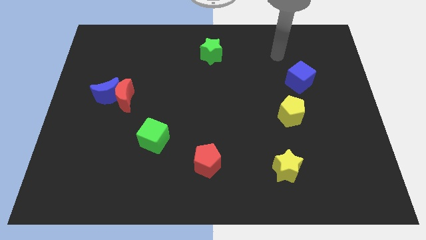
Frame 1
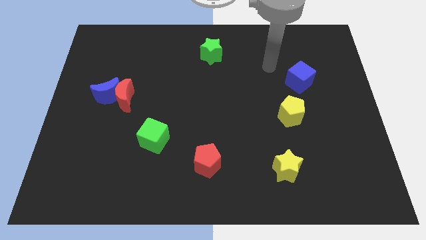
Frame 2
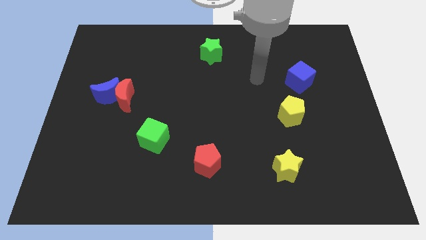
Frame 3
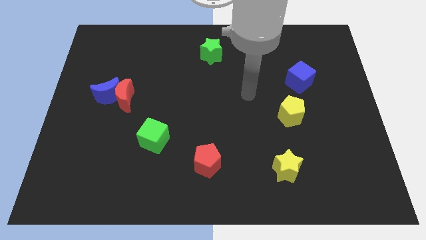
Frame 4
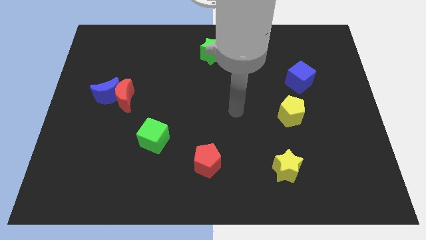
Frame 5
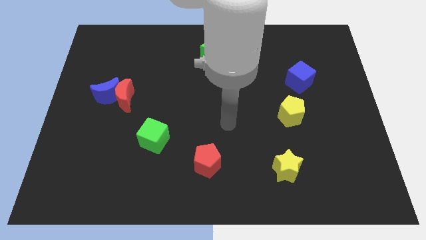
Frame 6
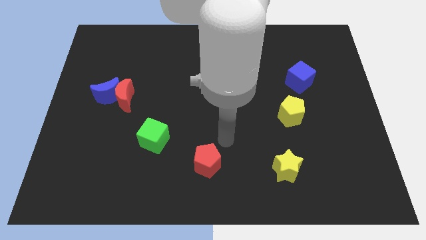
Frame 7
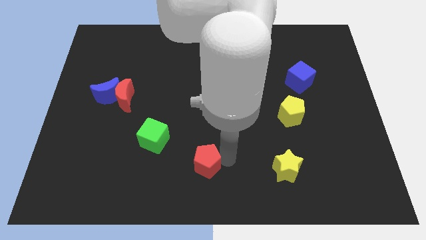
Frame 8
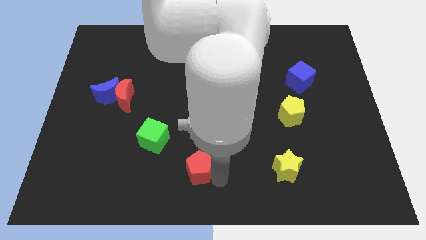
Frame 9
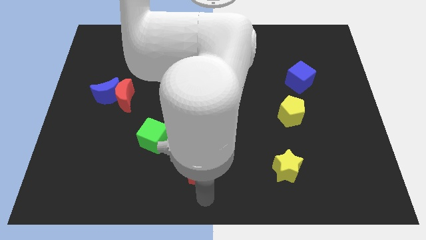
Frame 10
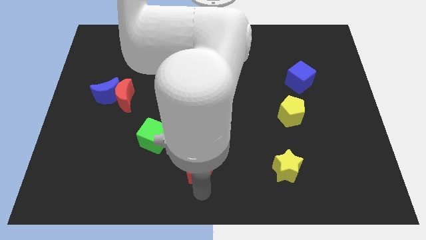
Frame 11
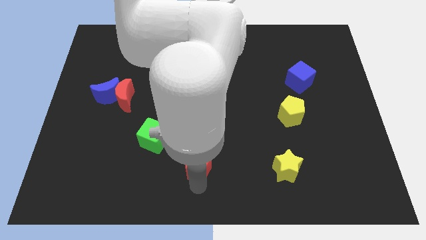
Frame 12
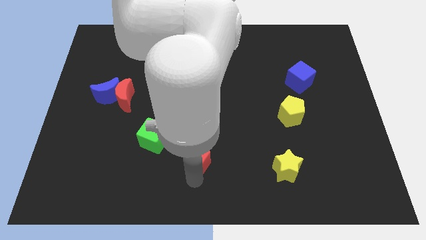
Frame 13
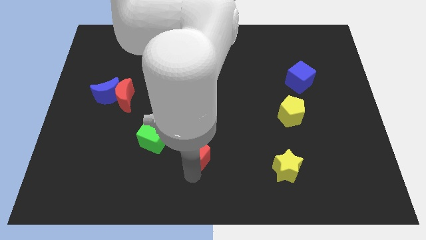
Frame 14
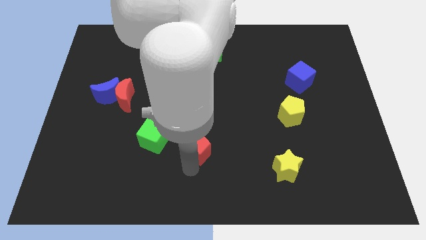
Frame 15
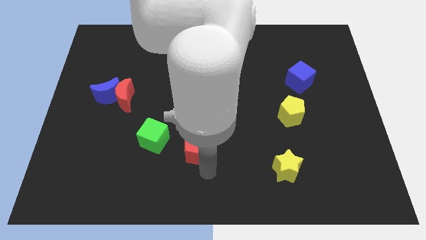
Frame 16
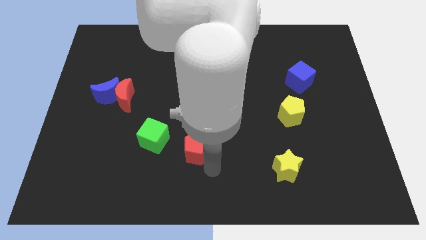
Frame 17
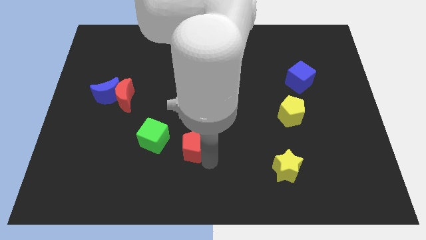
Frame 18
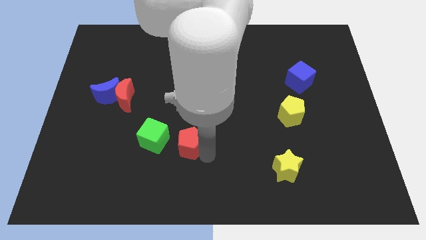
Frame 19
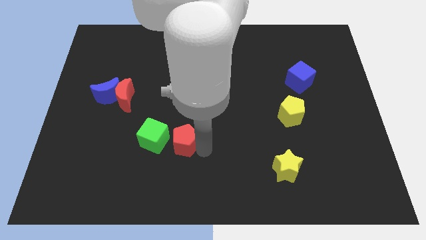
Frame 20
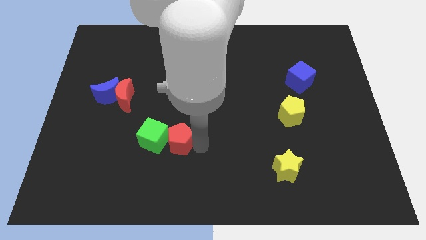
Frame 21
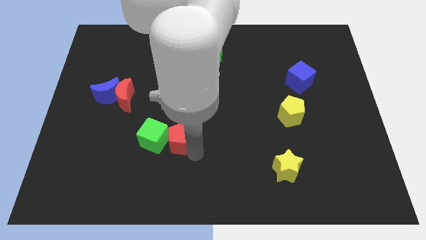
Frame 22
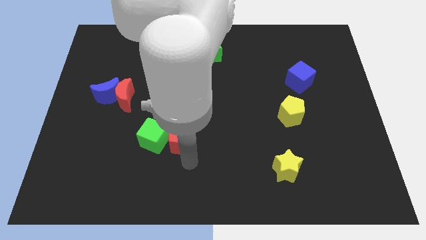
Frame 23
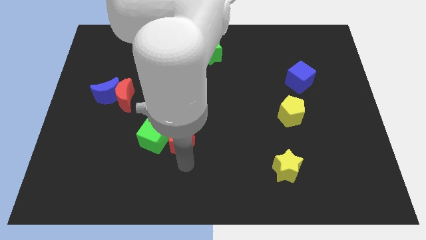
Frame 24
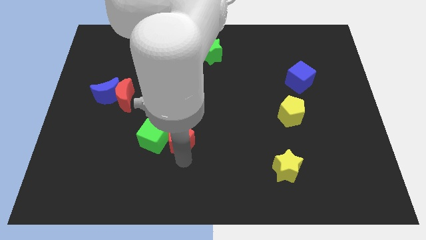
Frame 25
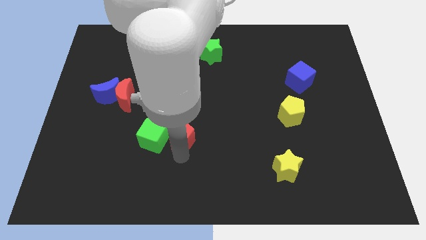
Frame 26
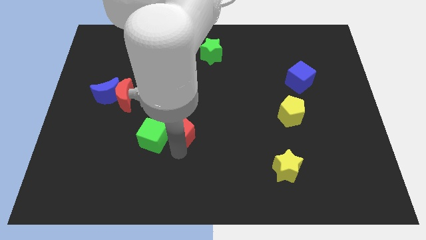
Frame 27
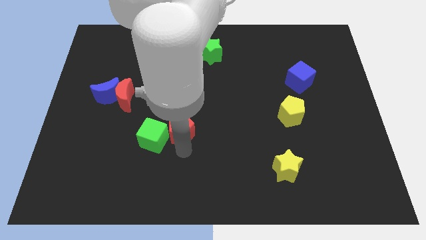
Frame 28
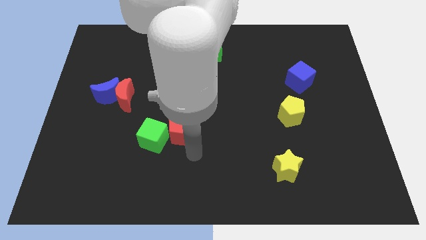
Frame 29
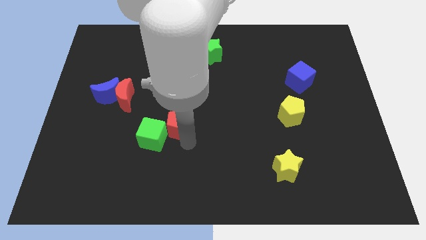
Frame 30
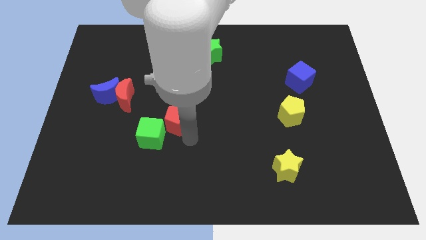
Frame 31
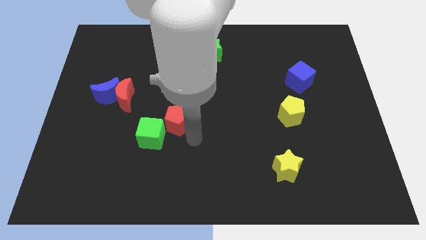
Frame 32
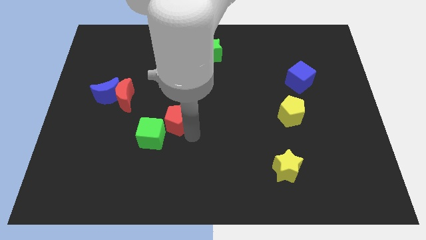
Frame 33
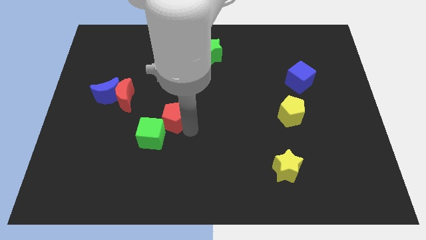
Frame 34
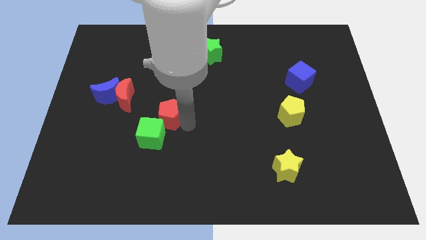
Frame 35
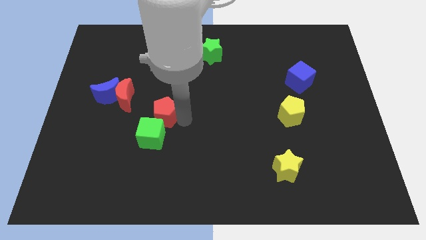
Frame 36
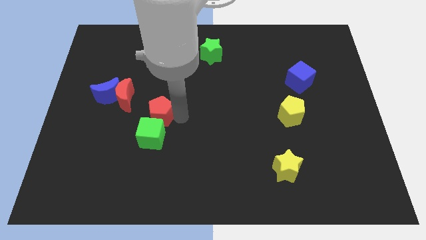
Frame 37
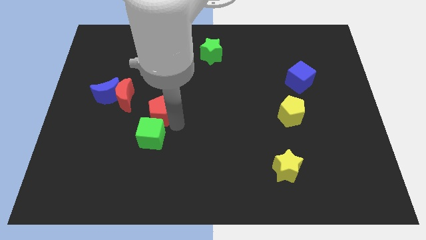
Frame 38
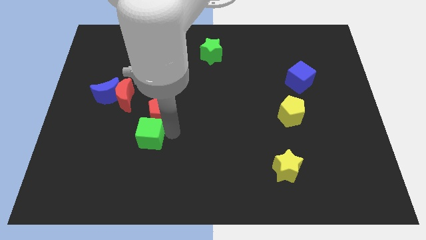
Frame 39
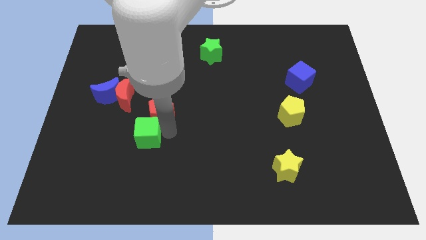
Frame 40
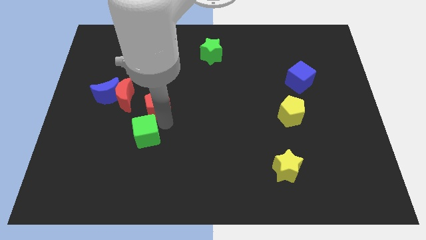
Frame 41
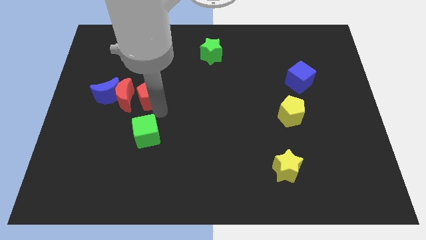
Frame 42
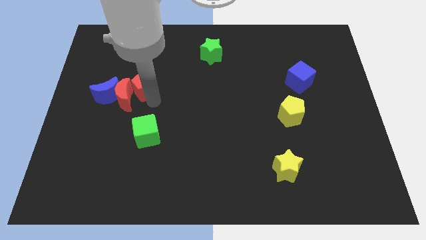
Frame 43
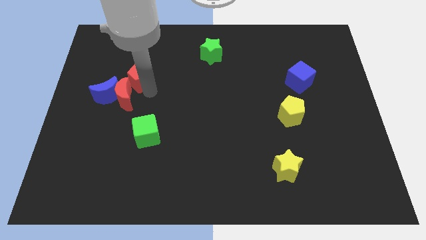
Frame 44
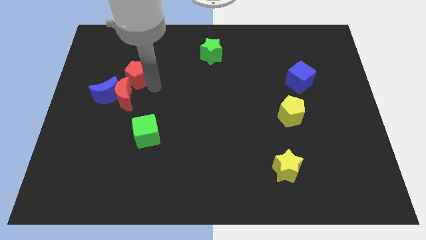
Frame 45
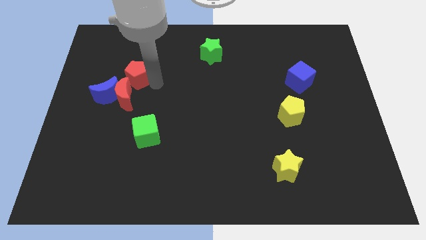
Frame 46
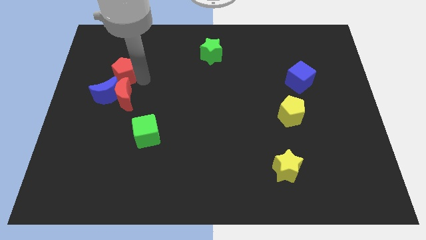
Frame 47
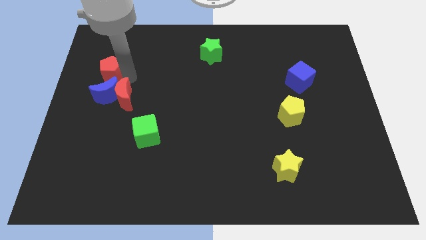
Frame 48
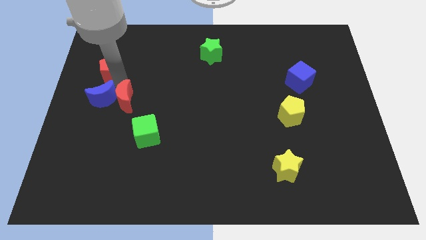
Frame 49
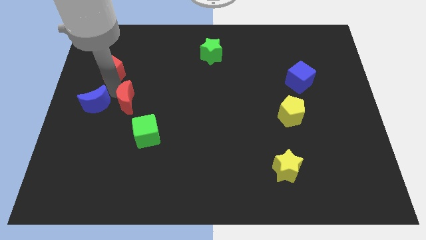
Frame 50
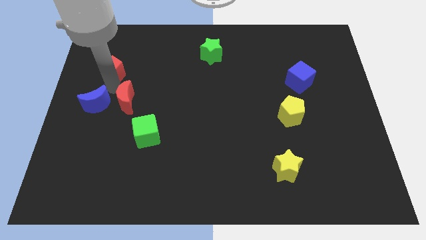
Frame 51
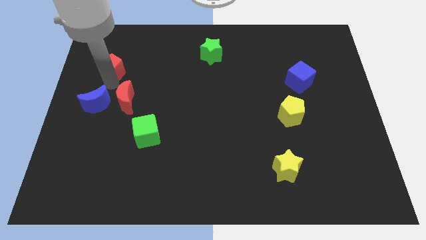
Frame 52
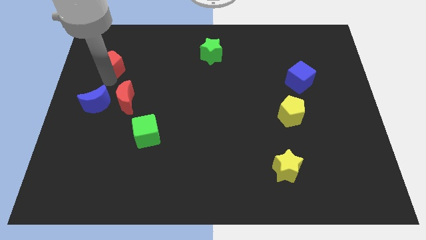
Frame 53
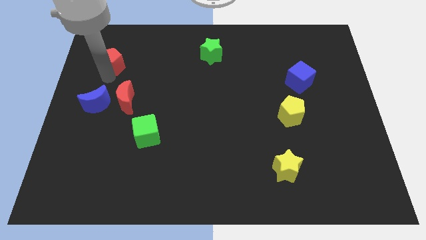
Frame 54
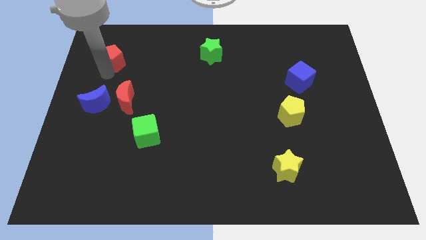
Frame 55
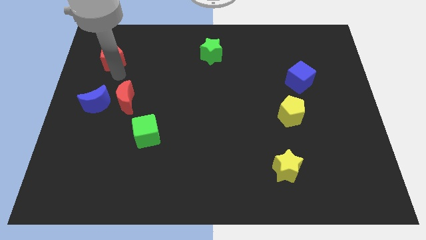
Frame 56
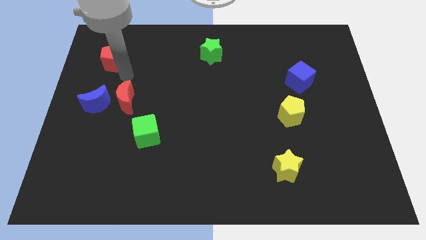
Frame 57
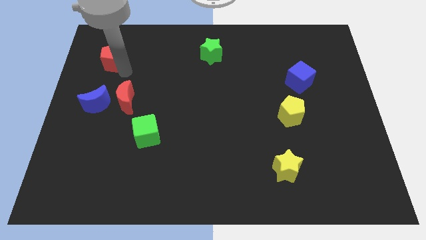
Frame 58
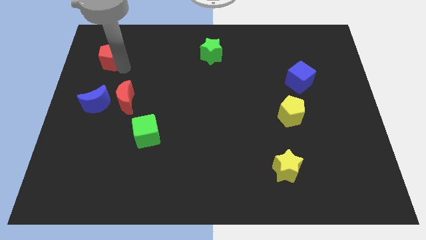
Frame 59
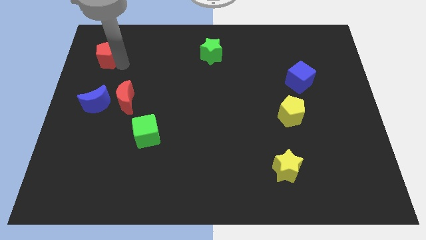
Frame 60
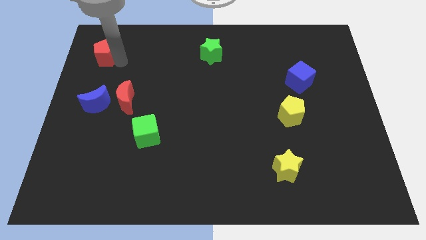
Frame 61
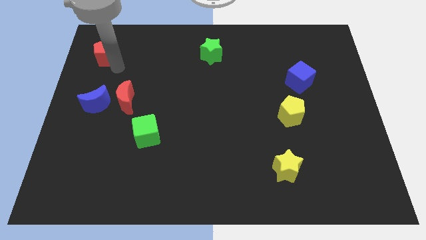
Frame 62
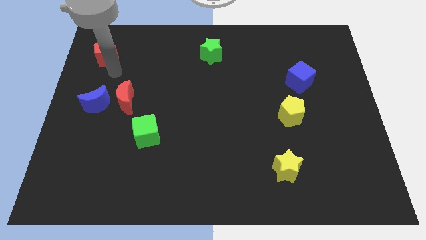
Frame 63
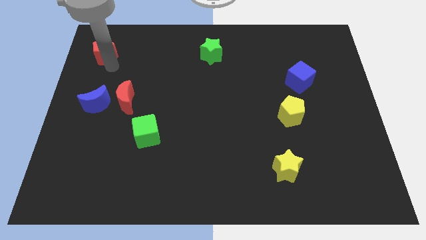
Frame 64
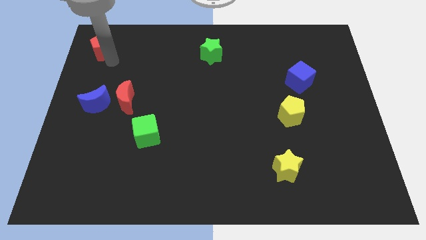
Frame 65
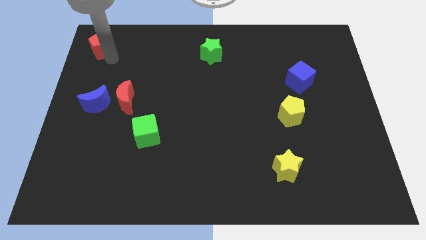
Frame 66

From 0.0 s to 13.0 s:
put the red pentagon to the top left

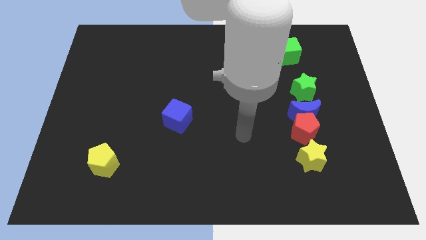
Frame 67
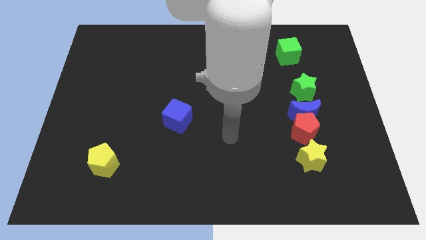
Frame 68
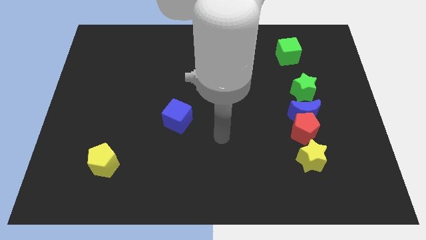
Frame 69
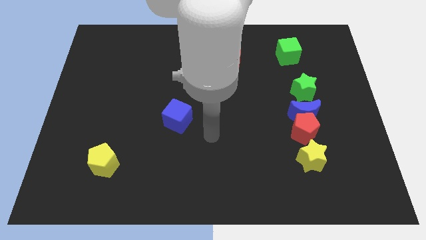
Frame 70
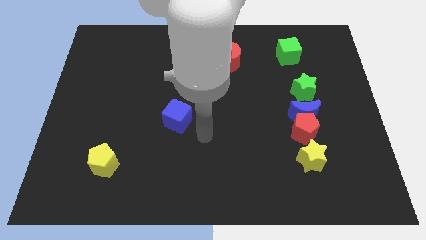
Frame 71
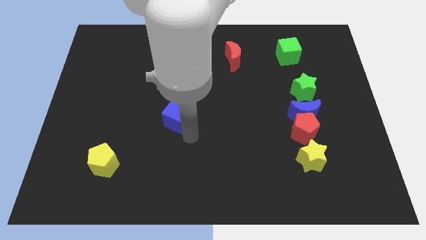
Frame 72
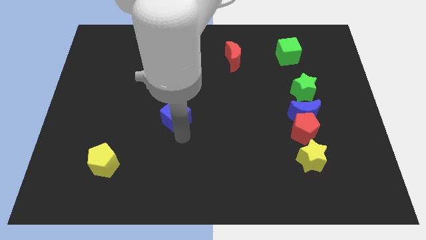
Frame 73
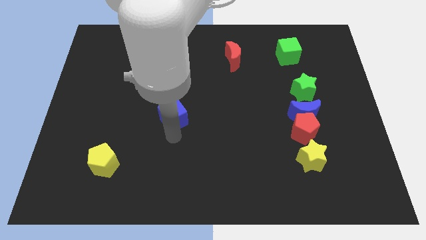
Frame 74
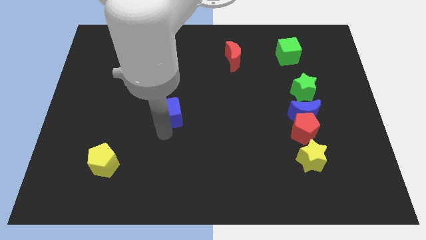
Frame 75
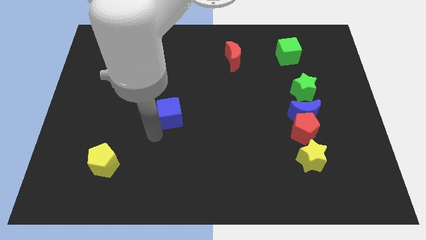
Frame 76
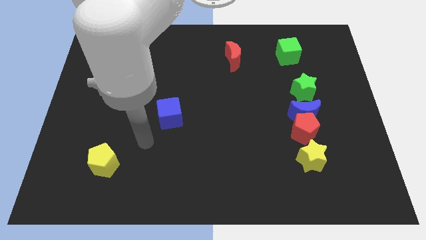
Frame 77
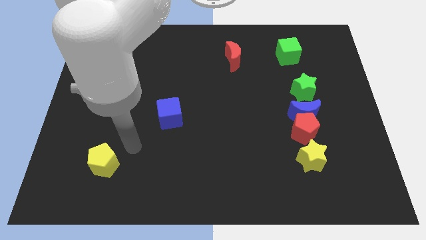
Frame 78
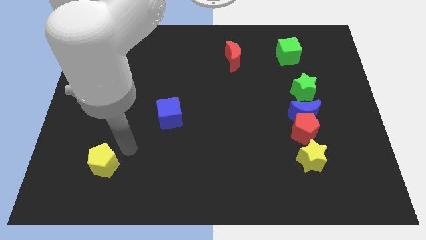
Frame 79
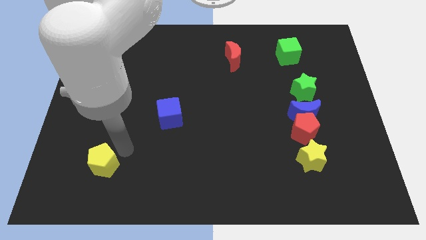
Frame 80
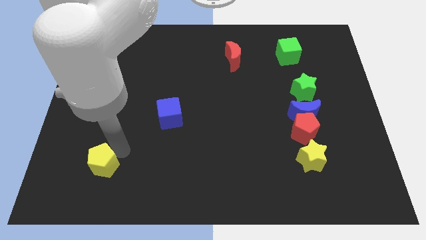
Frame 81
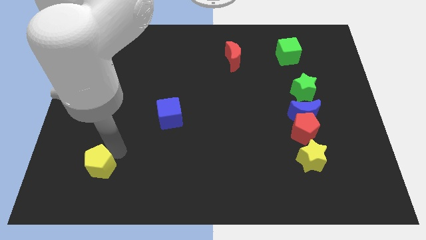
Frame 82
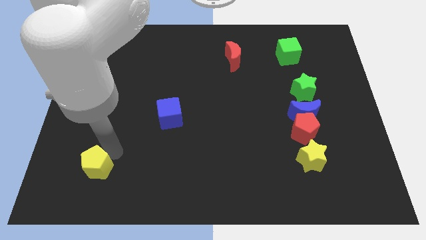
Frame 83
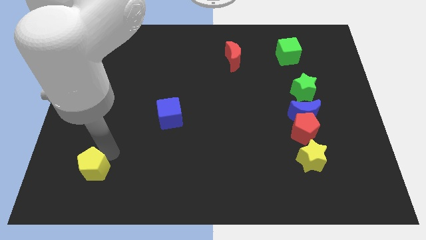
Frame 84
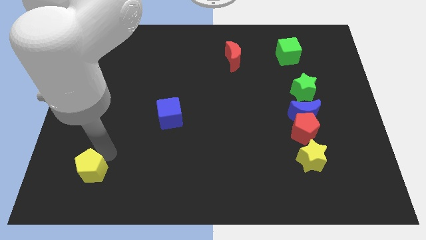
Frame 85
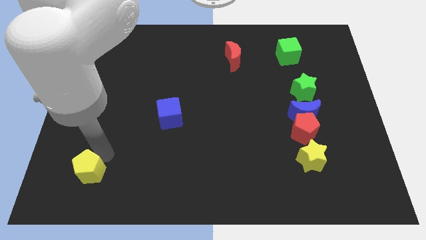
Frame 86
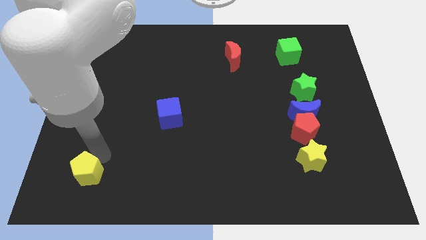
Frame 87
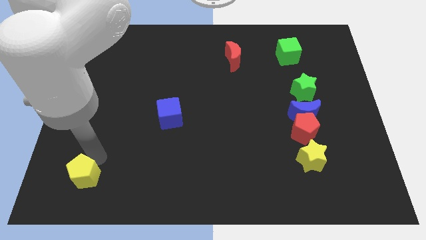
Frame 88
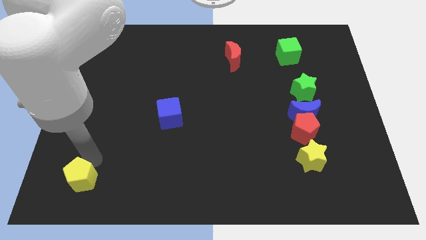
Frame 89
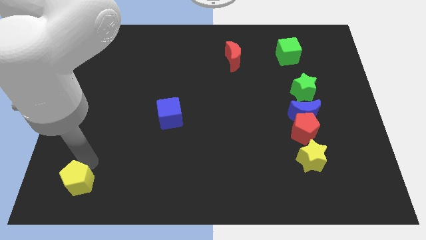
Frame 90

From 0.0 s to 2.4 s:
move the yellow pentagon to the bottom left corner
